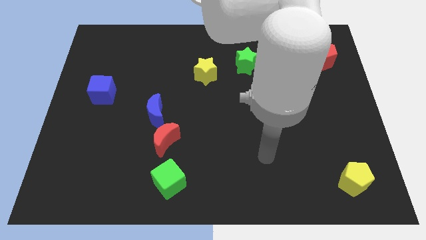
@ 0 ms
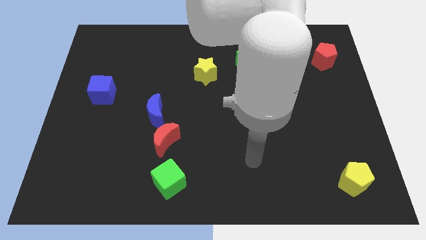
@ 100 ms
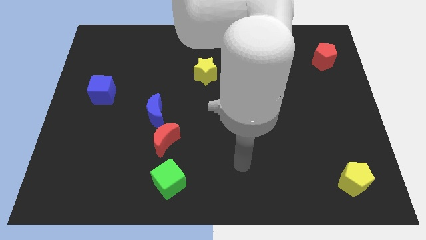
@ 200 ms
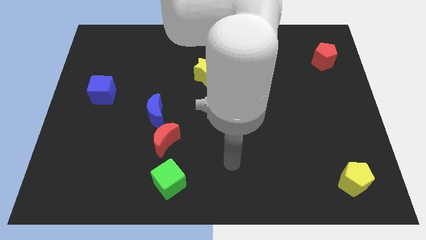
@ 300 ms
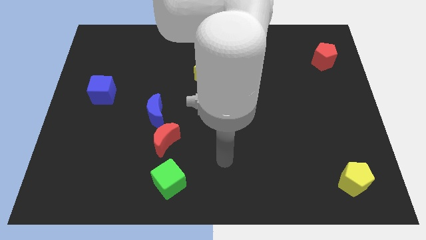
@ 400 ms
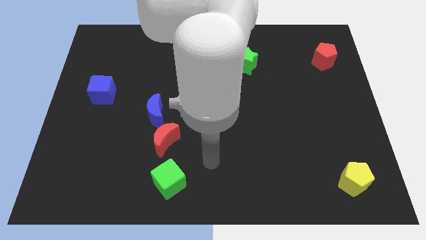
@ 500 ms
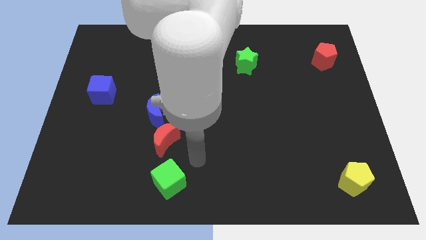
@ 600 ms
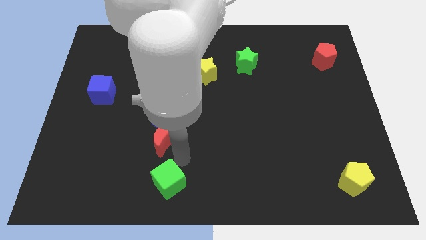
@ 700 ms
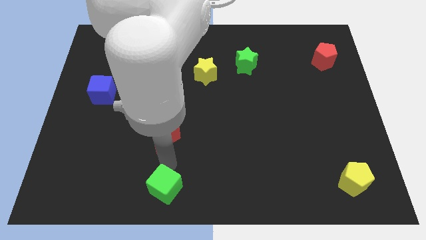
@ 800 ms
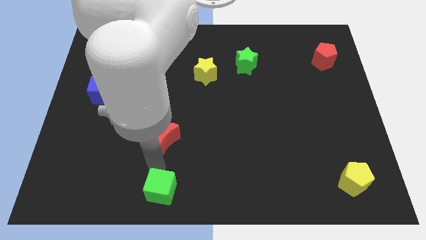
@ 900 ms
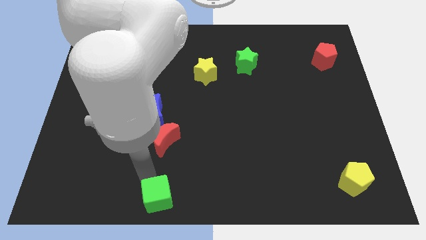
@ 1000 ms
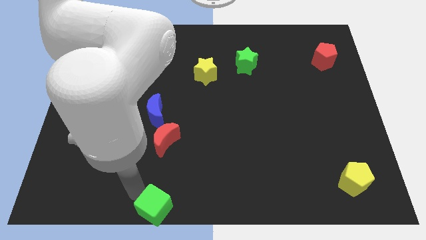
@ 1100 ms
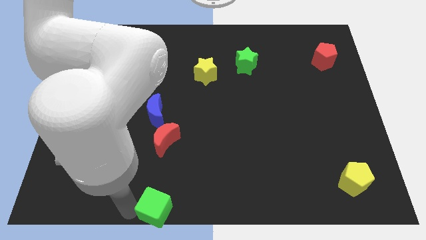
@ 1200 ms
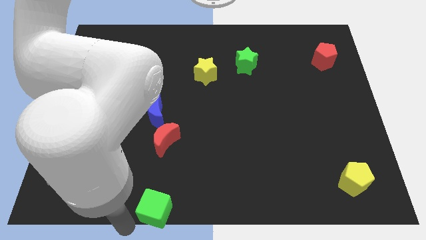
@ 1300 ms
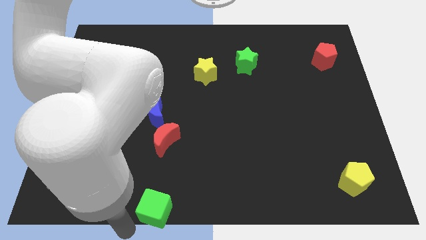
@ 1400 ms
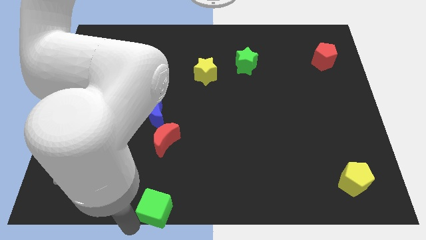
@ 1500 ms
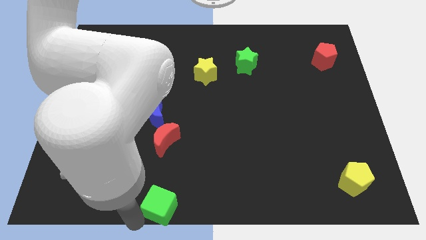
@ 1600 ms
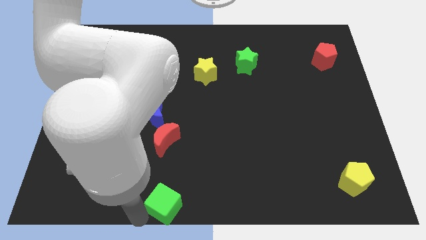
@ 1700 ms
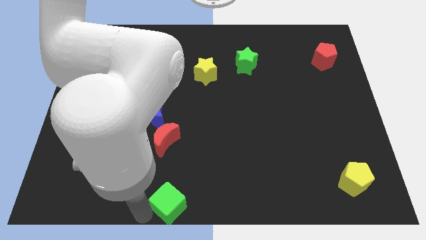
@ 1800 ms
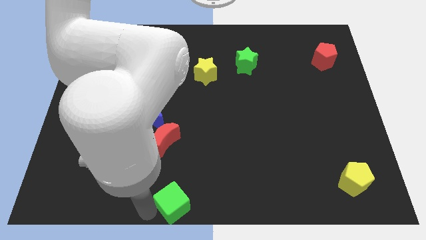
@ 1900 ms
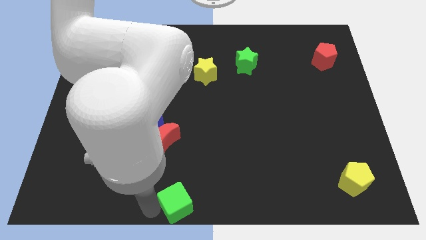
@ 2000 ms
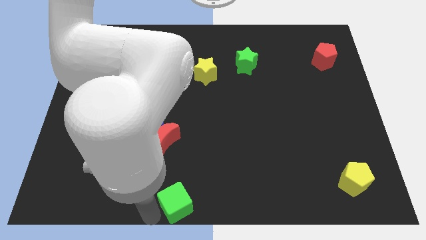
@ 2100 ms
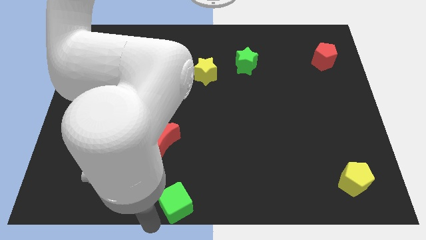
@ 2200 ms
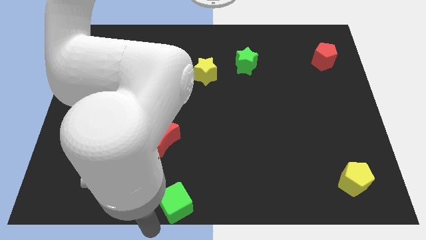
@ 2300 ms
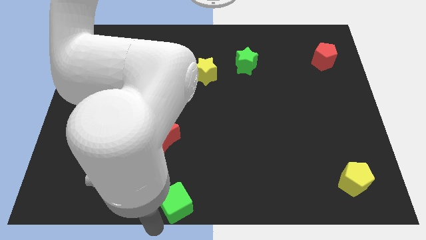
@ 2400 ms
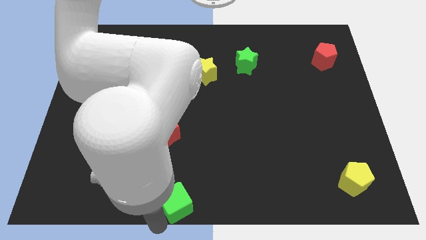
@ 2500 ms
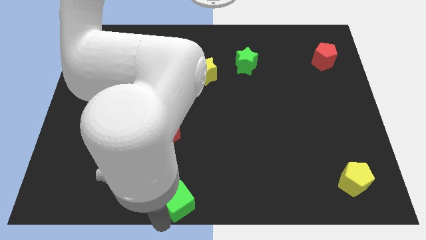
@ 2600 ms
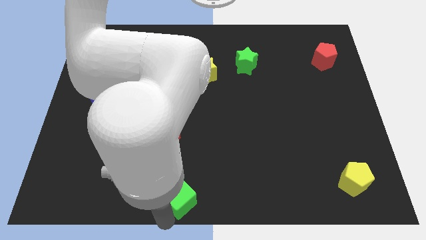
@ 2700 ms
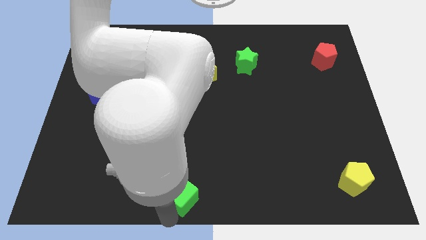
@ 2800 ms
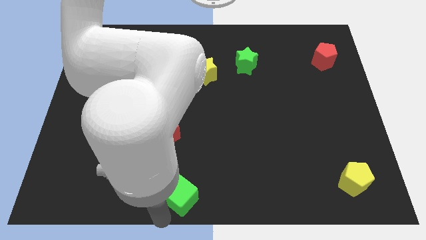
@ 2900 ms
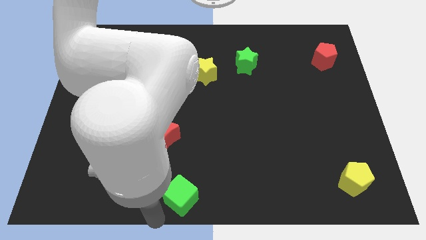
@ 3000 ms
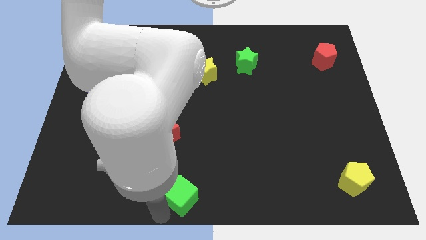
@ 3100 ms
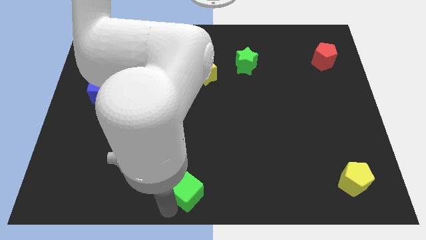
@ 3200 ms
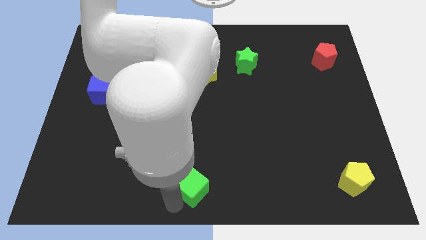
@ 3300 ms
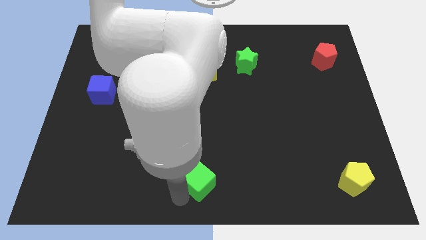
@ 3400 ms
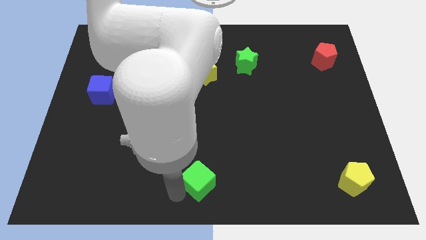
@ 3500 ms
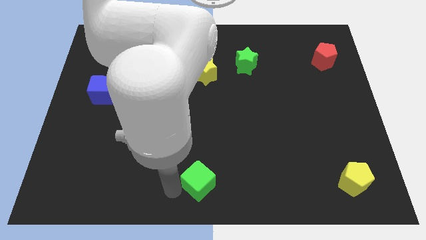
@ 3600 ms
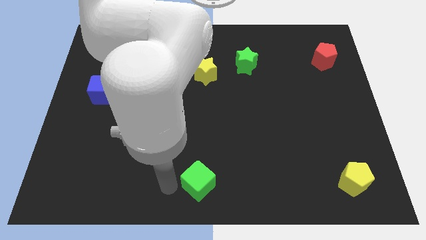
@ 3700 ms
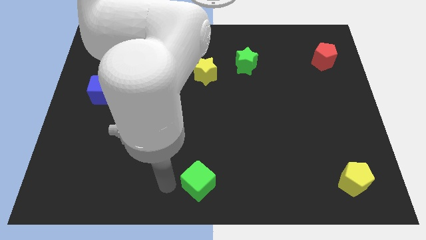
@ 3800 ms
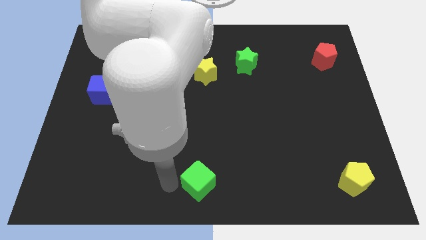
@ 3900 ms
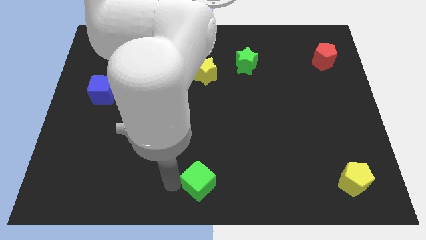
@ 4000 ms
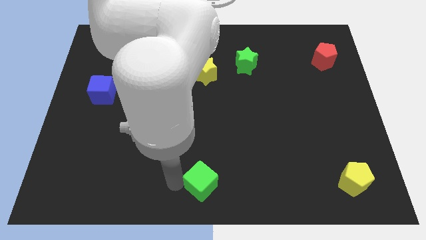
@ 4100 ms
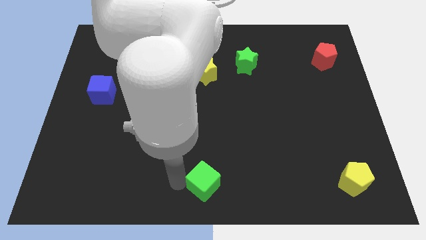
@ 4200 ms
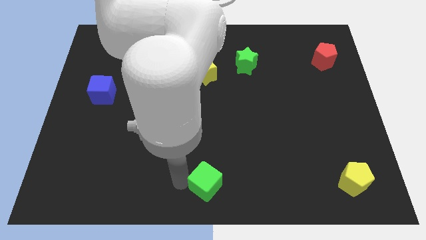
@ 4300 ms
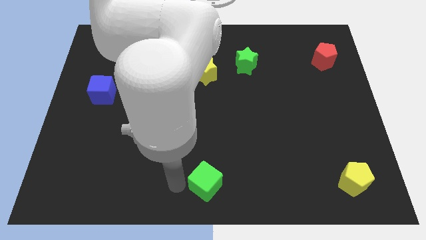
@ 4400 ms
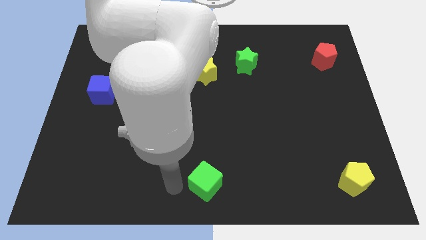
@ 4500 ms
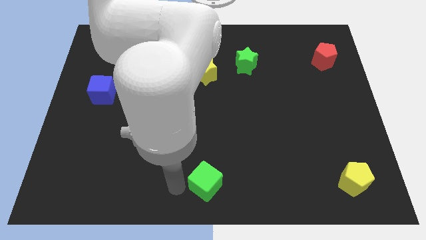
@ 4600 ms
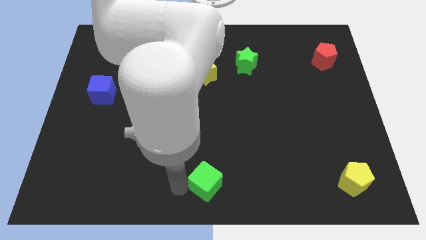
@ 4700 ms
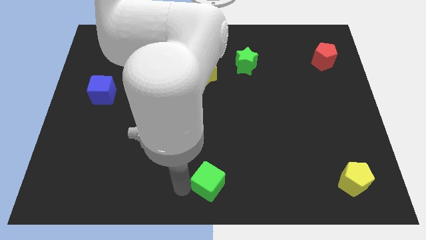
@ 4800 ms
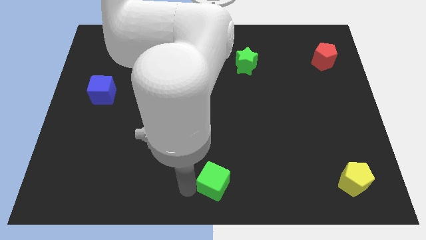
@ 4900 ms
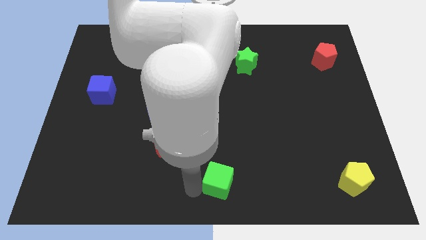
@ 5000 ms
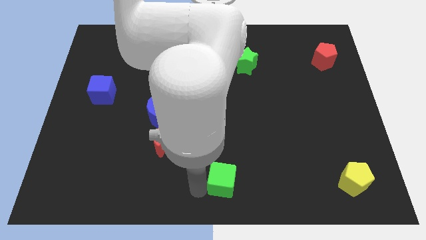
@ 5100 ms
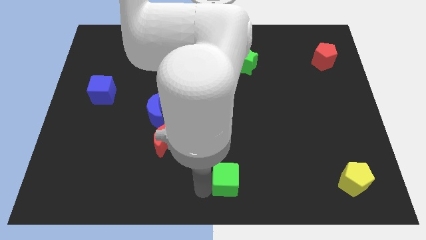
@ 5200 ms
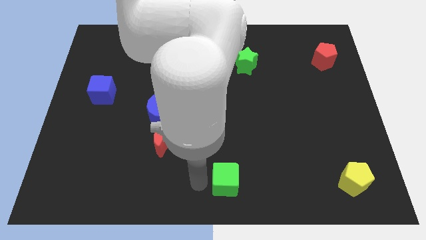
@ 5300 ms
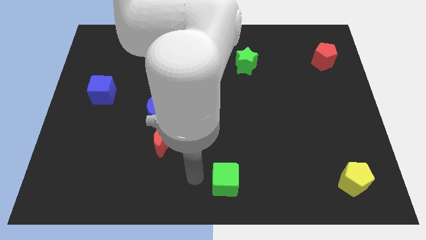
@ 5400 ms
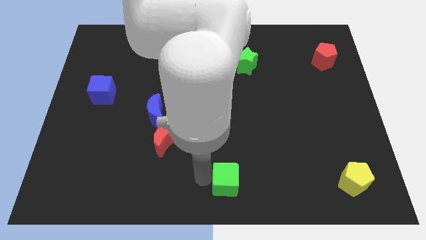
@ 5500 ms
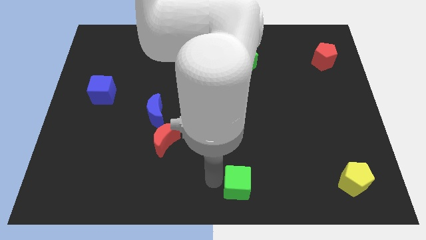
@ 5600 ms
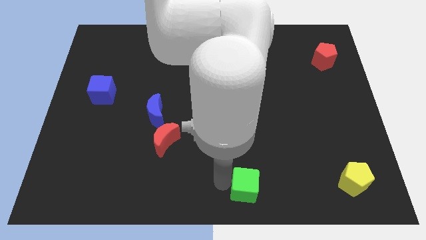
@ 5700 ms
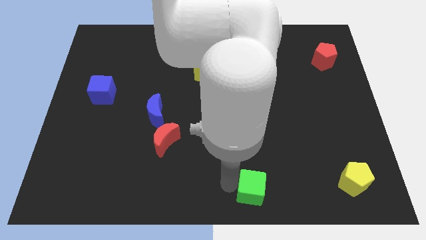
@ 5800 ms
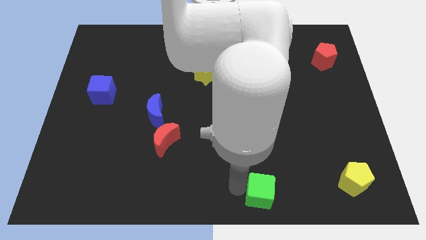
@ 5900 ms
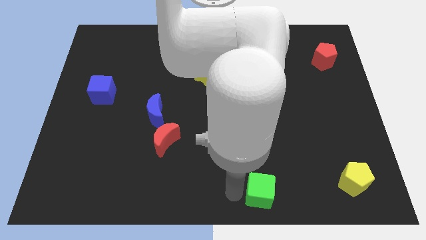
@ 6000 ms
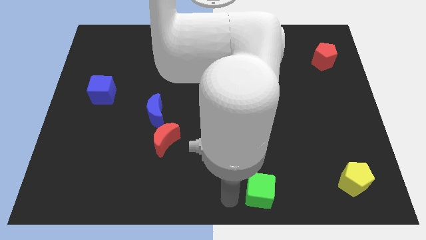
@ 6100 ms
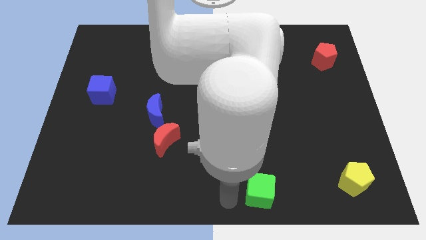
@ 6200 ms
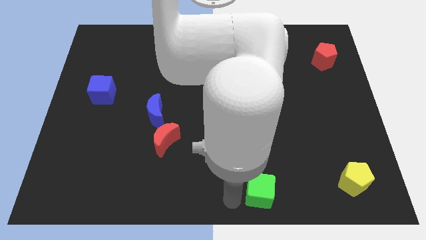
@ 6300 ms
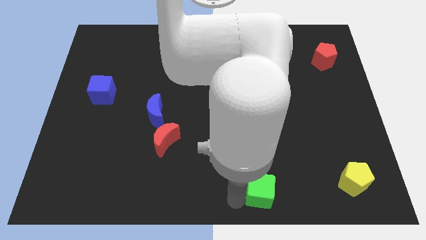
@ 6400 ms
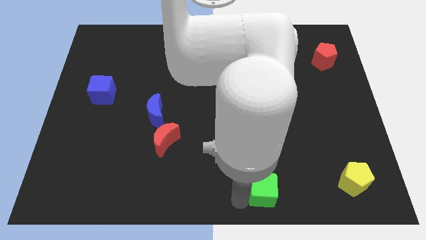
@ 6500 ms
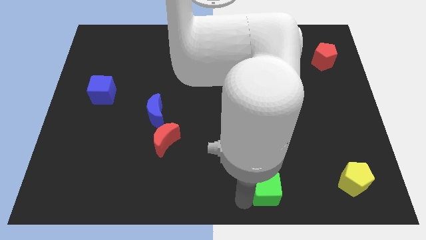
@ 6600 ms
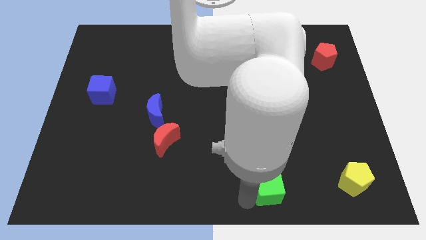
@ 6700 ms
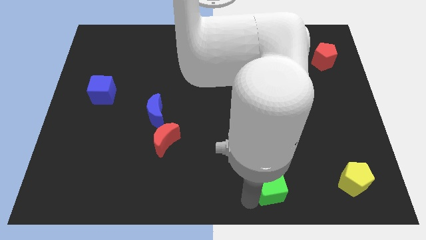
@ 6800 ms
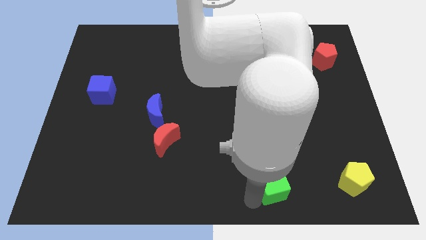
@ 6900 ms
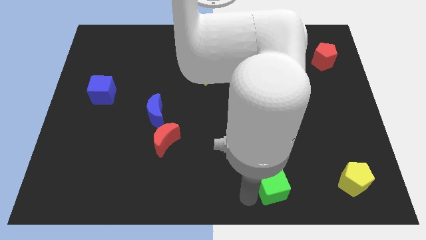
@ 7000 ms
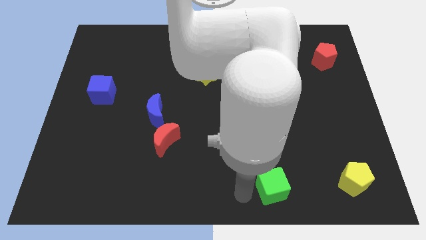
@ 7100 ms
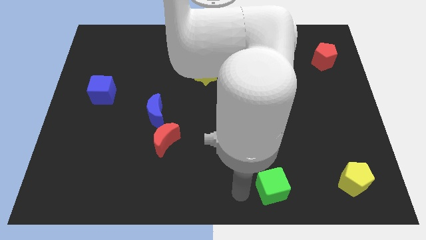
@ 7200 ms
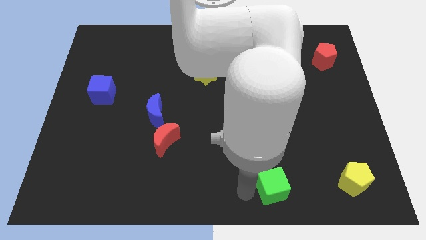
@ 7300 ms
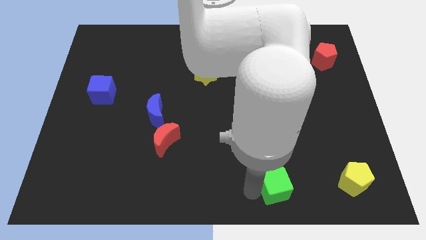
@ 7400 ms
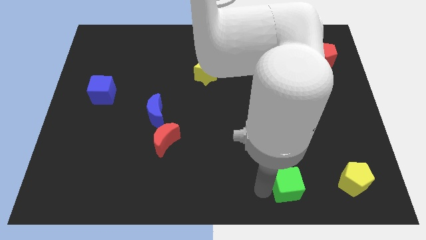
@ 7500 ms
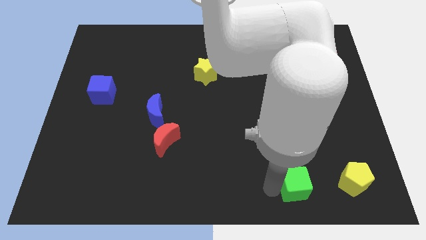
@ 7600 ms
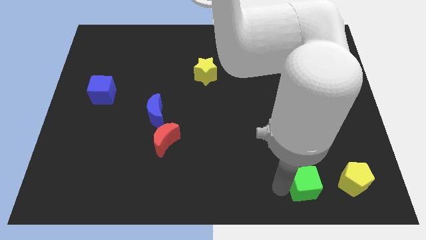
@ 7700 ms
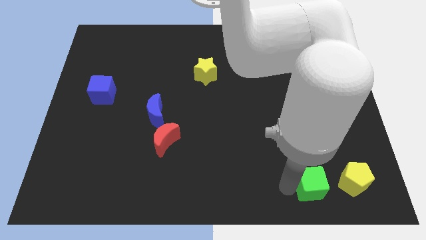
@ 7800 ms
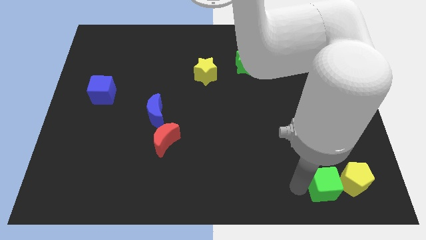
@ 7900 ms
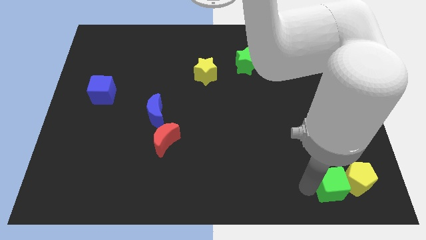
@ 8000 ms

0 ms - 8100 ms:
push the green cube next to the yellow pentagon
